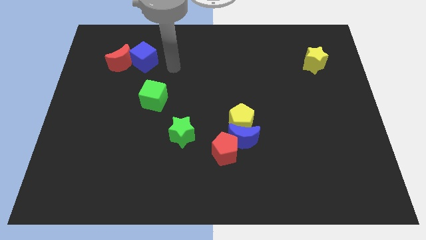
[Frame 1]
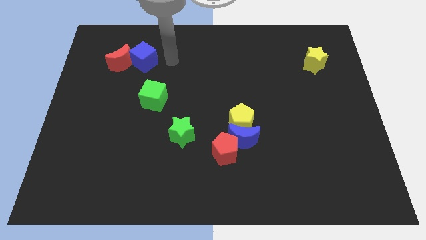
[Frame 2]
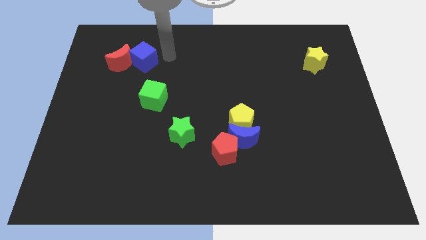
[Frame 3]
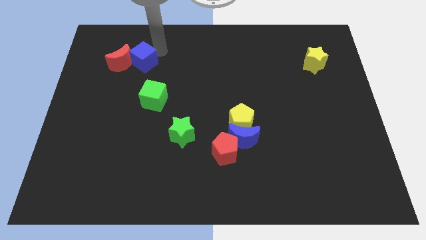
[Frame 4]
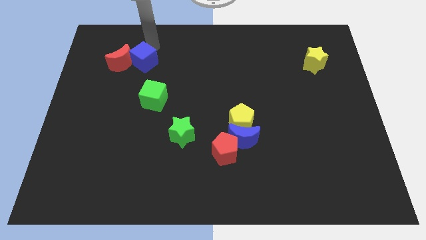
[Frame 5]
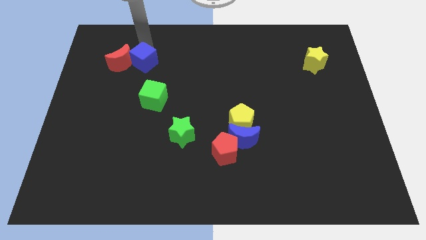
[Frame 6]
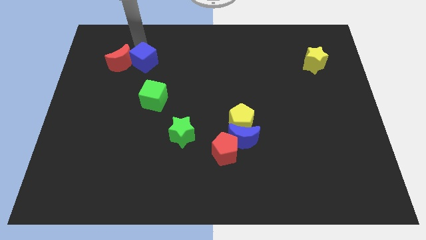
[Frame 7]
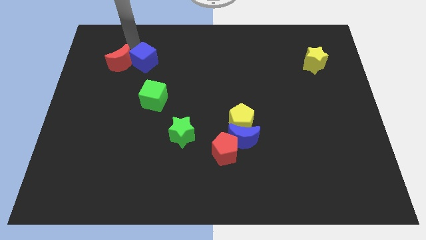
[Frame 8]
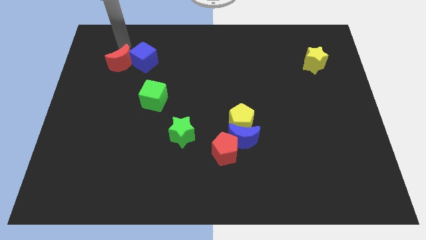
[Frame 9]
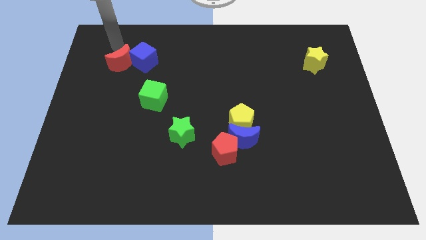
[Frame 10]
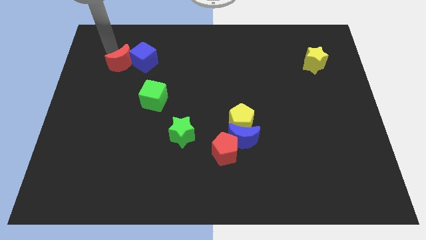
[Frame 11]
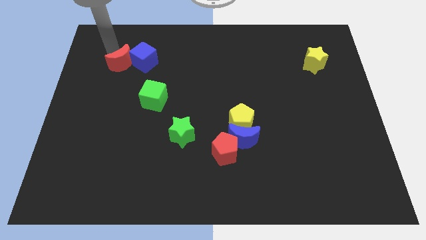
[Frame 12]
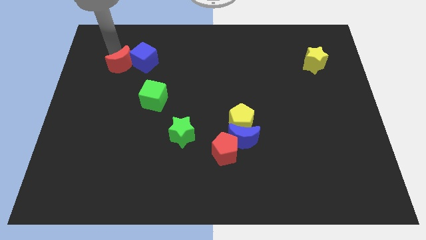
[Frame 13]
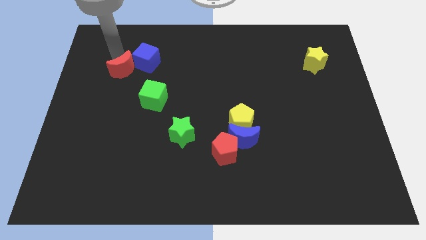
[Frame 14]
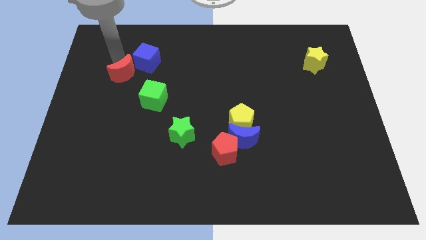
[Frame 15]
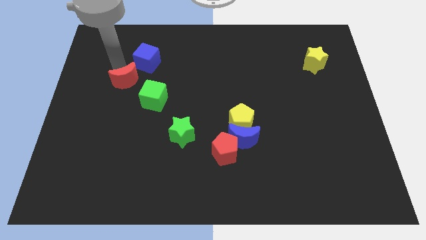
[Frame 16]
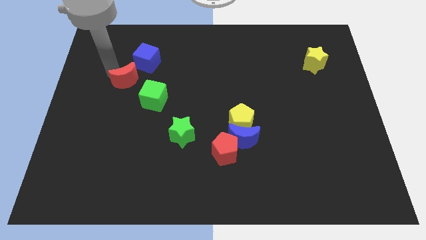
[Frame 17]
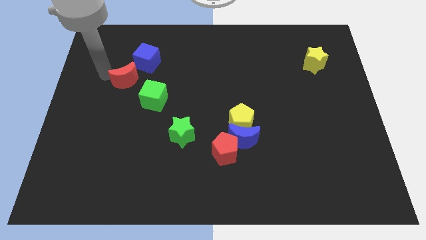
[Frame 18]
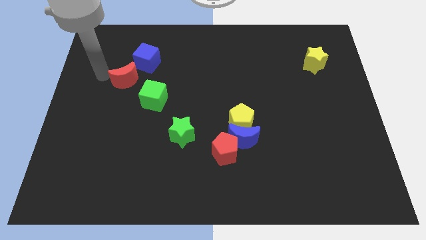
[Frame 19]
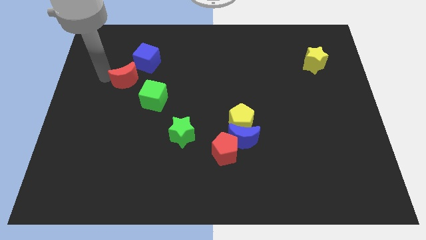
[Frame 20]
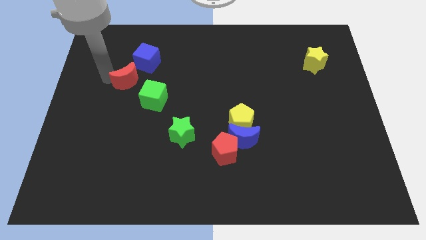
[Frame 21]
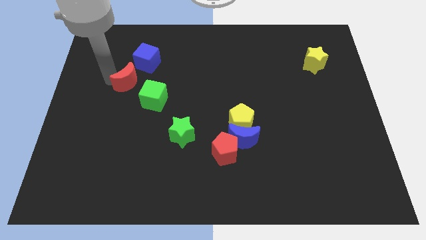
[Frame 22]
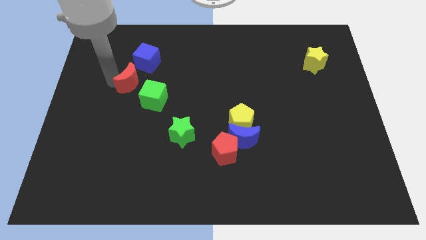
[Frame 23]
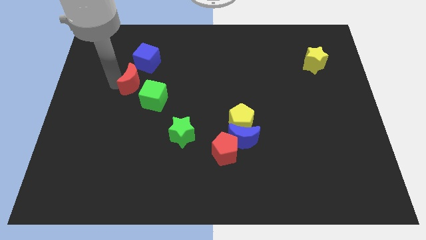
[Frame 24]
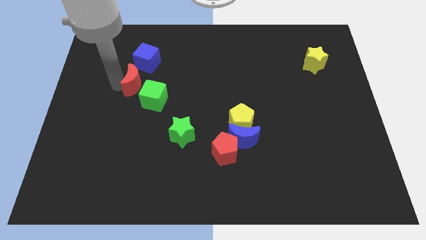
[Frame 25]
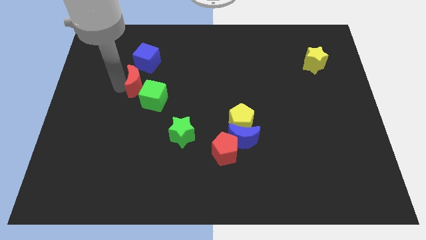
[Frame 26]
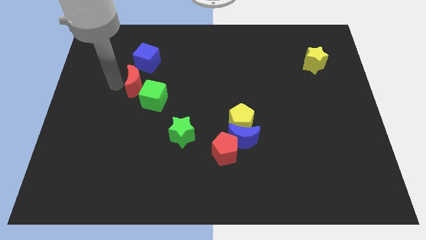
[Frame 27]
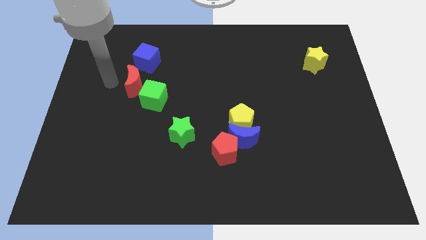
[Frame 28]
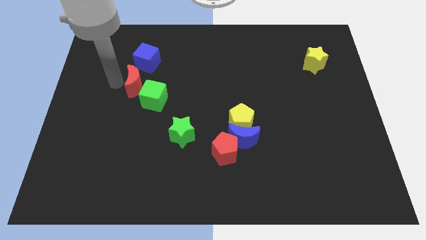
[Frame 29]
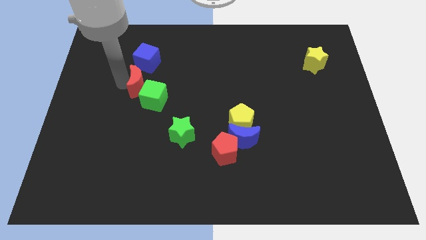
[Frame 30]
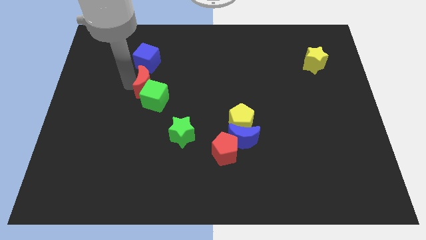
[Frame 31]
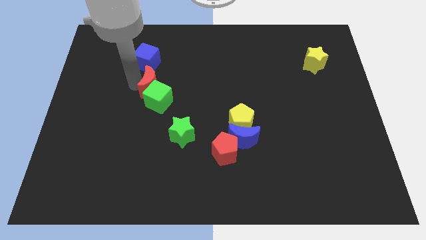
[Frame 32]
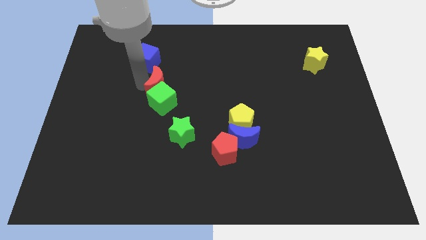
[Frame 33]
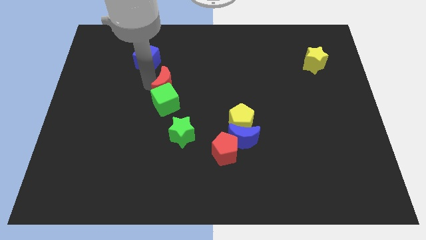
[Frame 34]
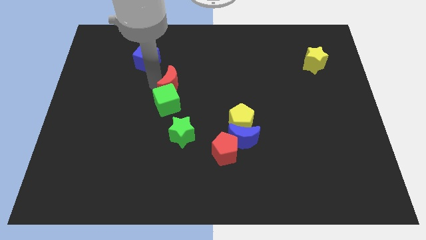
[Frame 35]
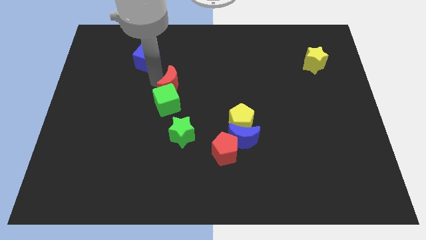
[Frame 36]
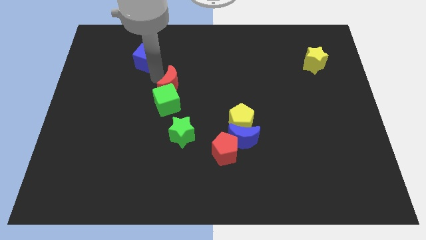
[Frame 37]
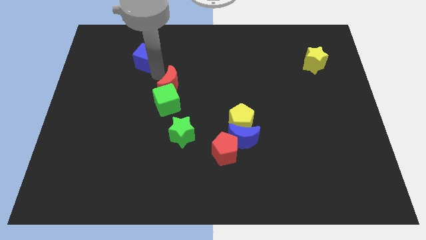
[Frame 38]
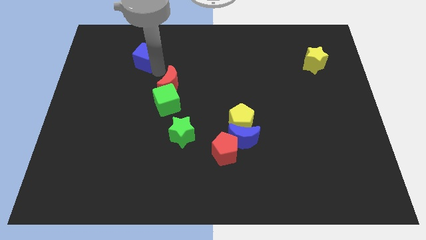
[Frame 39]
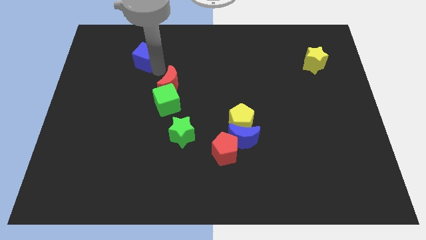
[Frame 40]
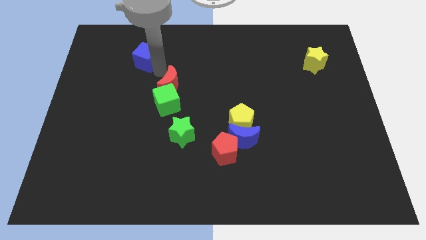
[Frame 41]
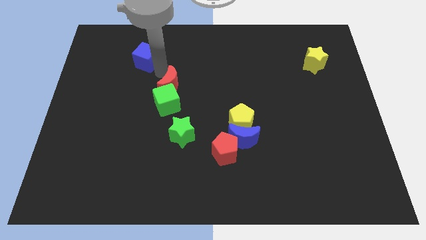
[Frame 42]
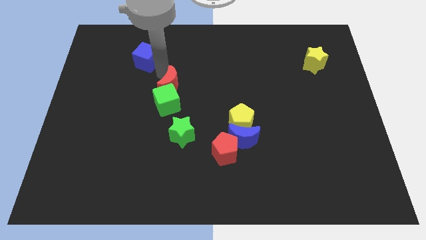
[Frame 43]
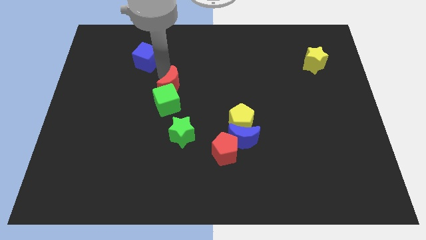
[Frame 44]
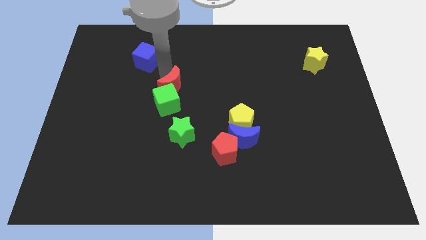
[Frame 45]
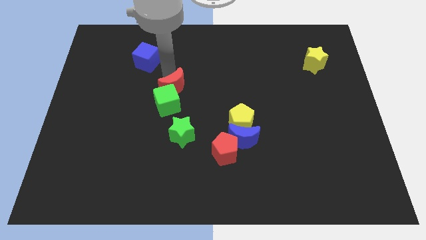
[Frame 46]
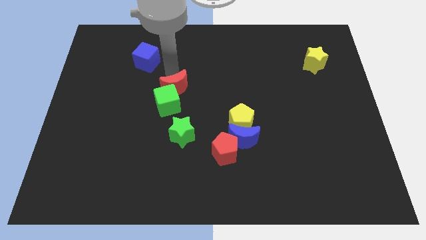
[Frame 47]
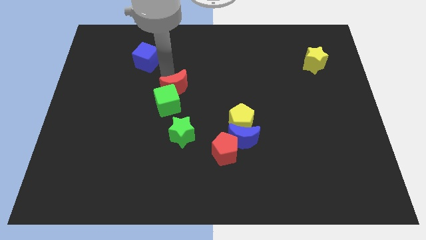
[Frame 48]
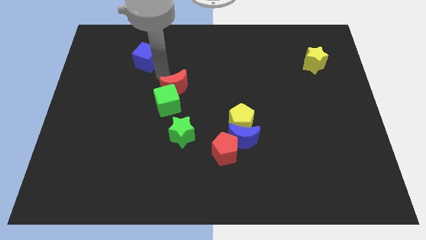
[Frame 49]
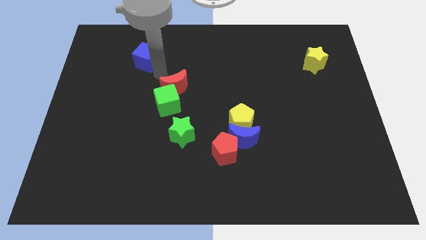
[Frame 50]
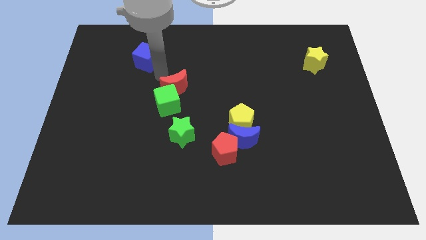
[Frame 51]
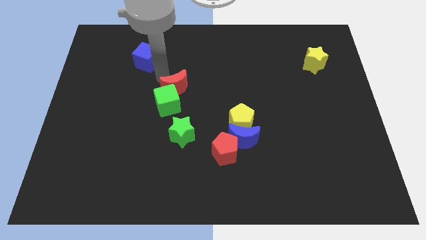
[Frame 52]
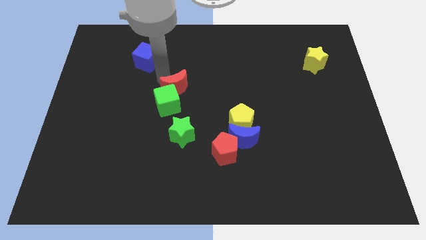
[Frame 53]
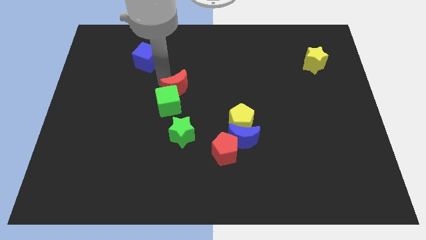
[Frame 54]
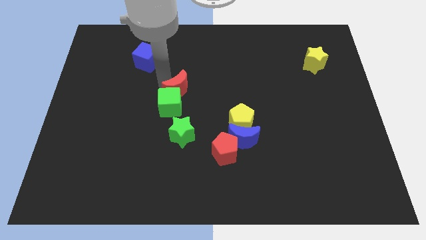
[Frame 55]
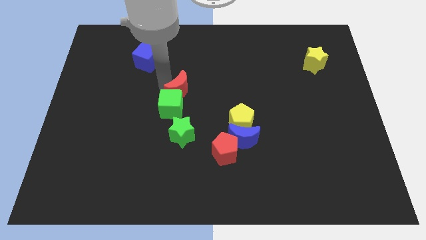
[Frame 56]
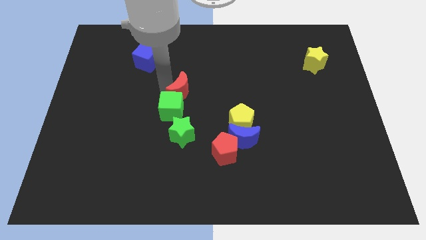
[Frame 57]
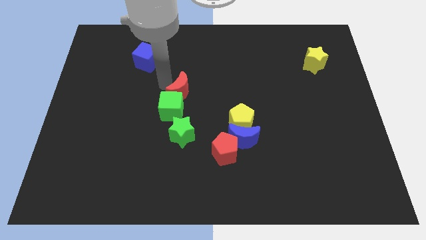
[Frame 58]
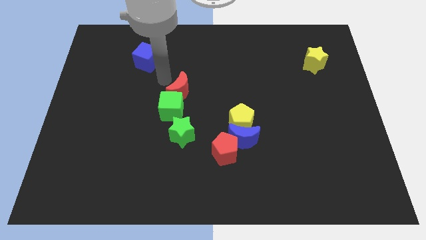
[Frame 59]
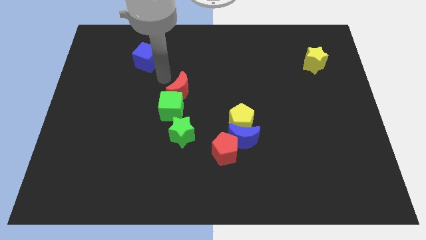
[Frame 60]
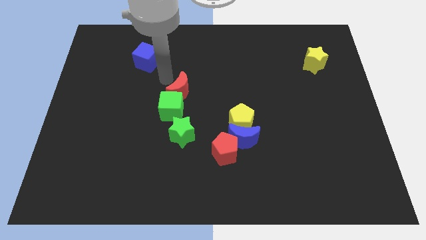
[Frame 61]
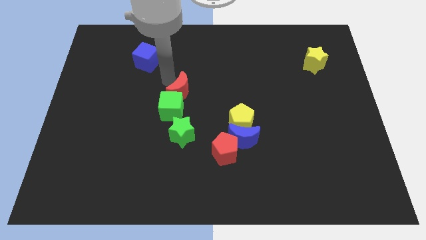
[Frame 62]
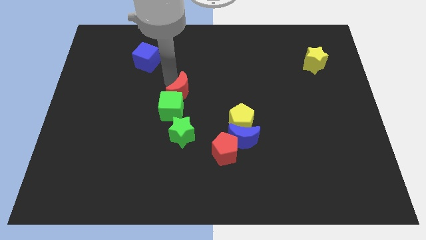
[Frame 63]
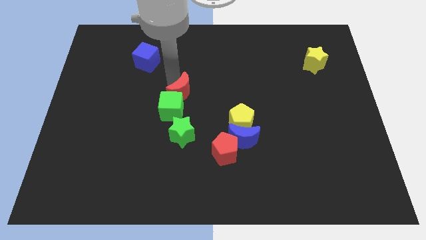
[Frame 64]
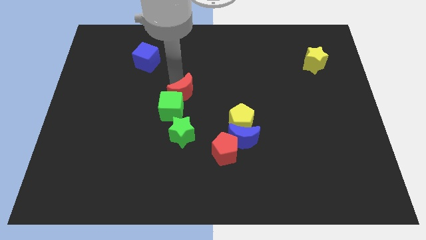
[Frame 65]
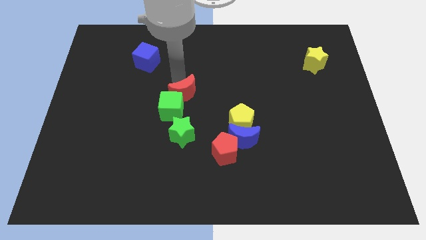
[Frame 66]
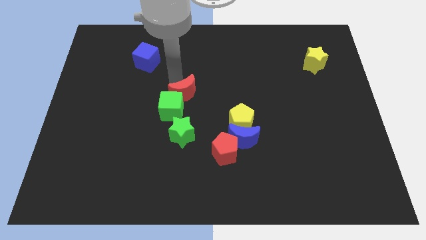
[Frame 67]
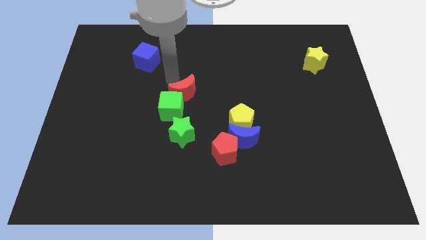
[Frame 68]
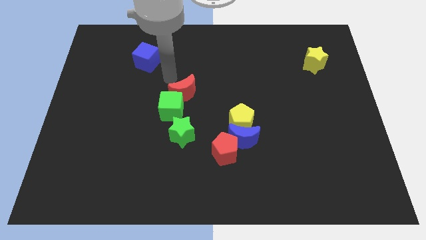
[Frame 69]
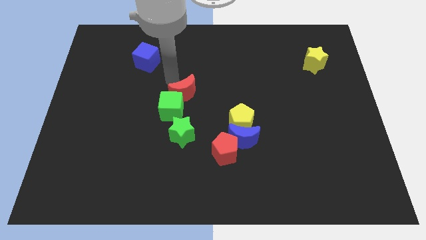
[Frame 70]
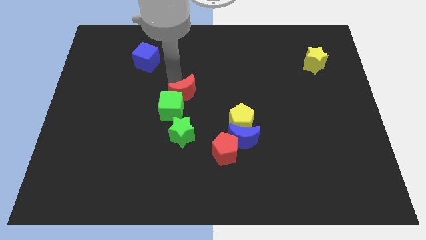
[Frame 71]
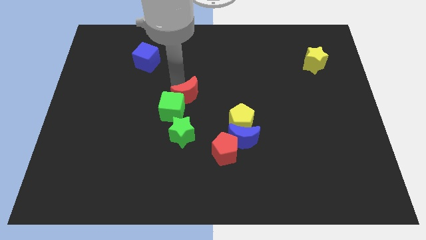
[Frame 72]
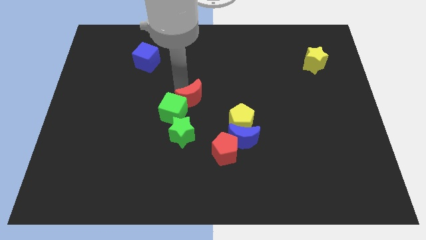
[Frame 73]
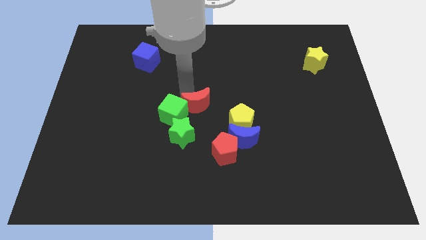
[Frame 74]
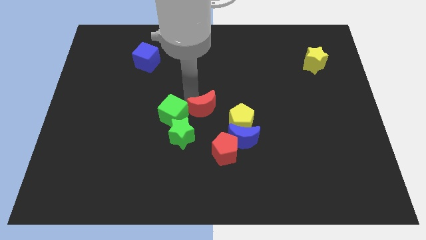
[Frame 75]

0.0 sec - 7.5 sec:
slide the red moon diagonally up and to the left of the blue moon

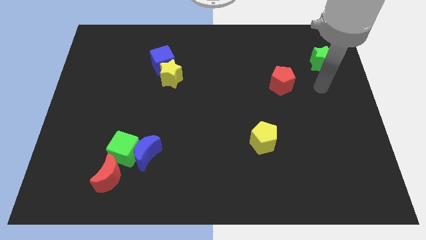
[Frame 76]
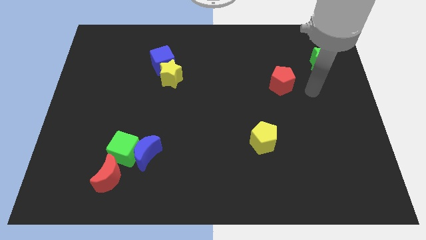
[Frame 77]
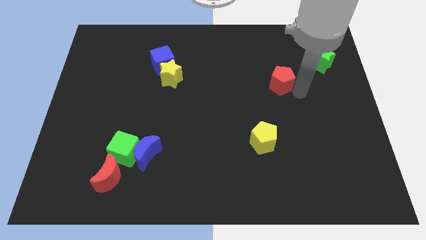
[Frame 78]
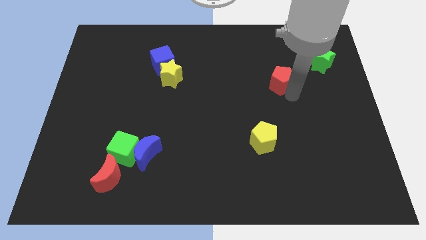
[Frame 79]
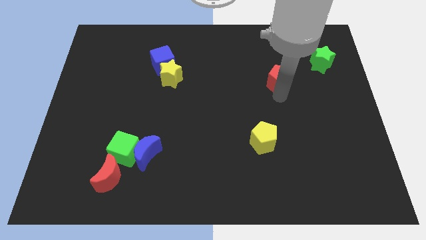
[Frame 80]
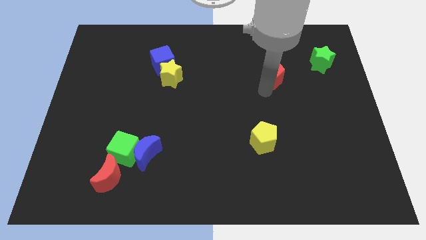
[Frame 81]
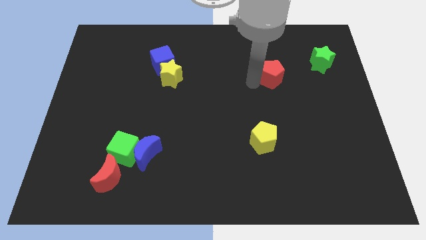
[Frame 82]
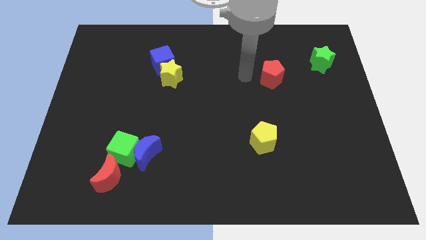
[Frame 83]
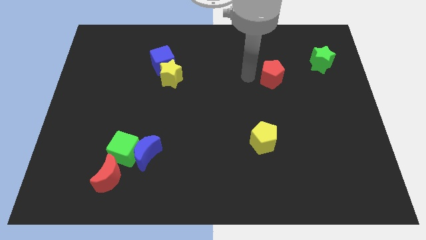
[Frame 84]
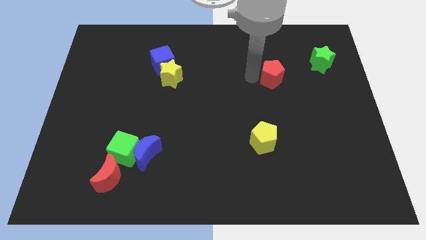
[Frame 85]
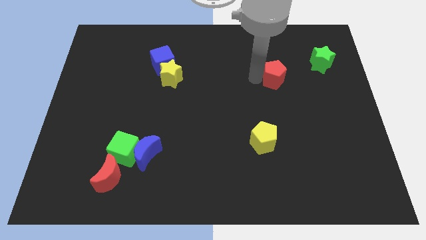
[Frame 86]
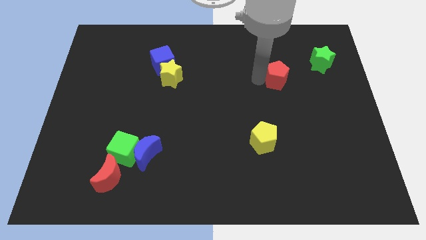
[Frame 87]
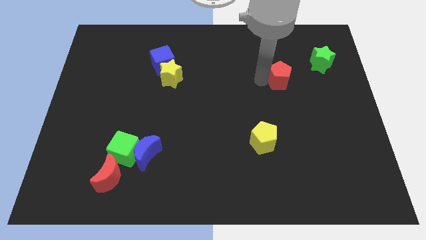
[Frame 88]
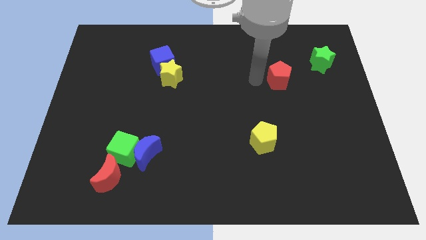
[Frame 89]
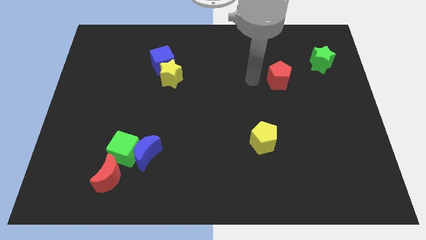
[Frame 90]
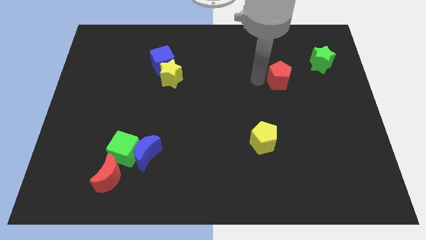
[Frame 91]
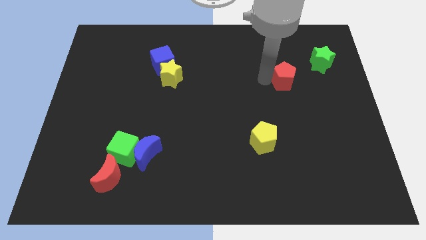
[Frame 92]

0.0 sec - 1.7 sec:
move the red pentagon diagonally down and to the left of the green star
